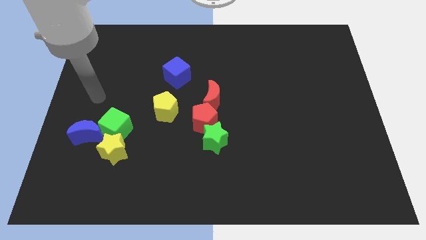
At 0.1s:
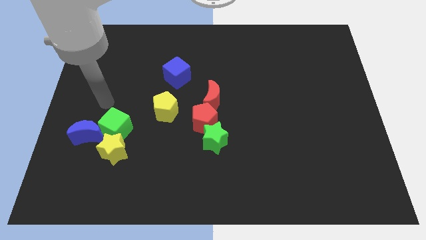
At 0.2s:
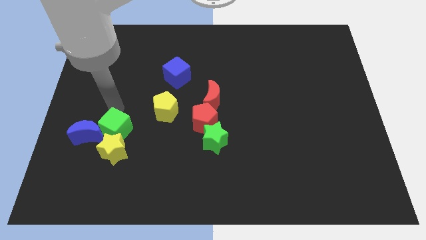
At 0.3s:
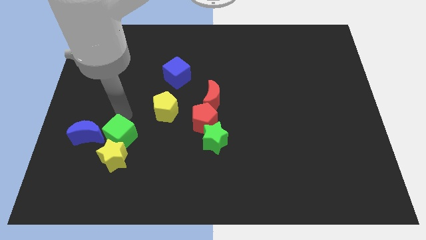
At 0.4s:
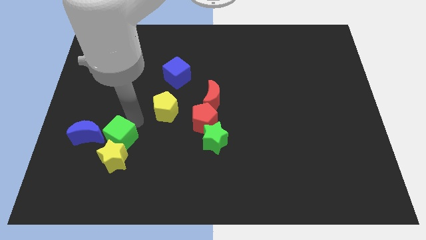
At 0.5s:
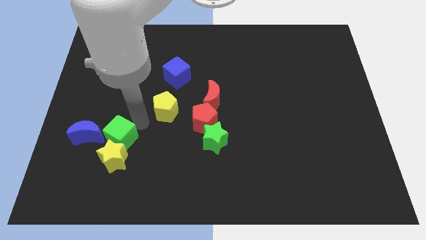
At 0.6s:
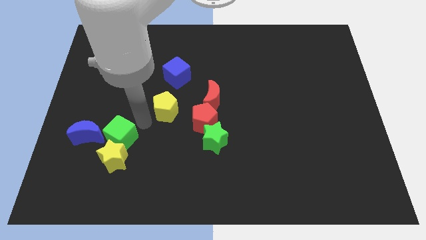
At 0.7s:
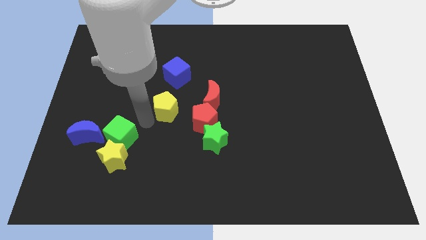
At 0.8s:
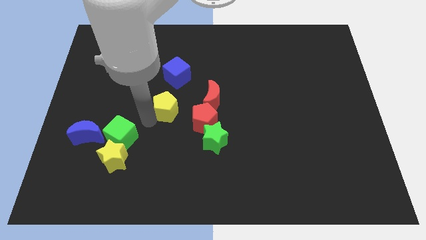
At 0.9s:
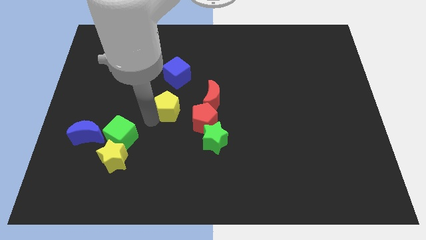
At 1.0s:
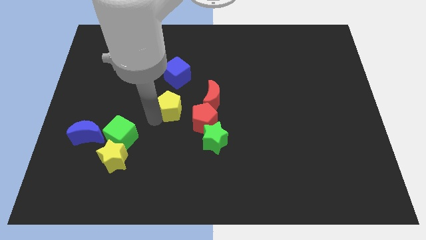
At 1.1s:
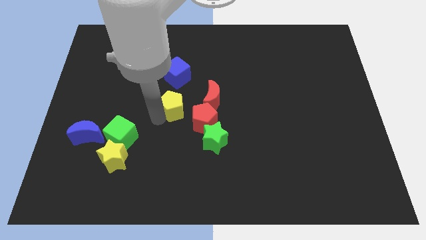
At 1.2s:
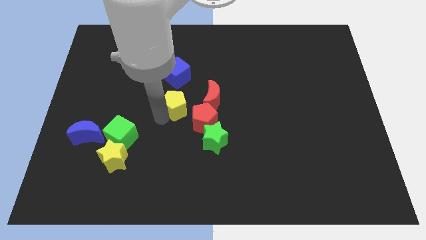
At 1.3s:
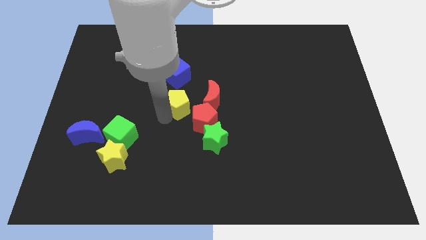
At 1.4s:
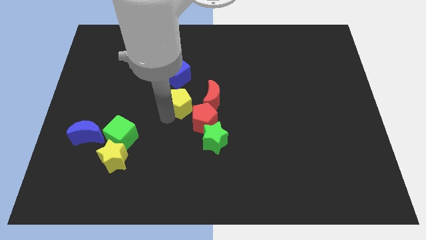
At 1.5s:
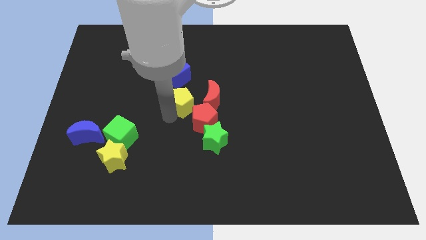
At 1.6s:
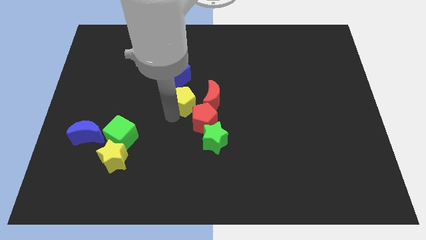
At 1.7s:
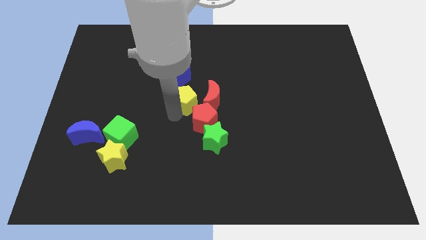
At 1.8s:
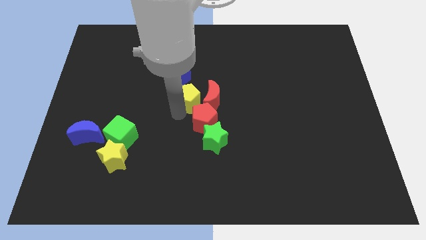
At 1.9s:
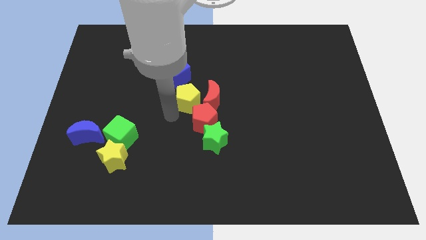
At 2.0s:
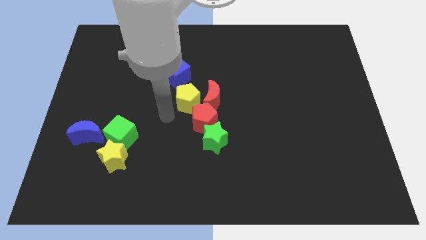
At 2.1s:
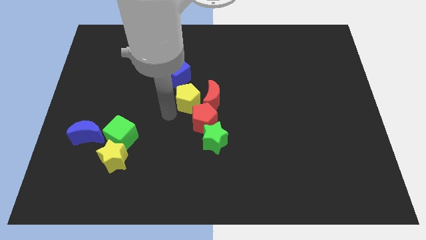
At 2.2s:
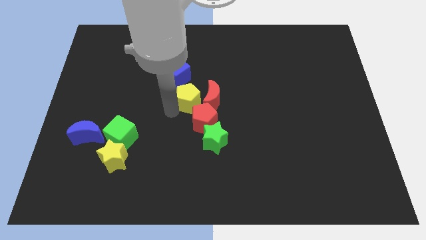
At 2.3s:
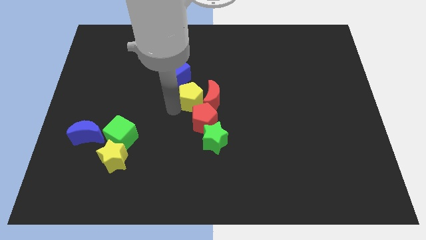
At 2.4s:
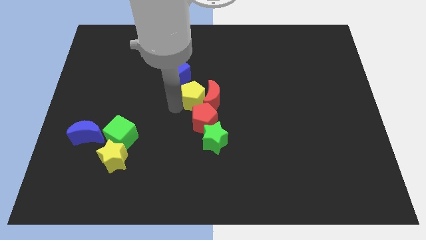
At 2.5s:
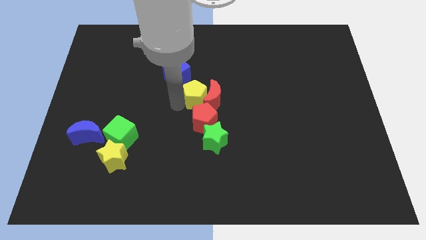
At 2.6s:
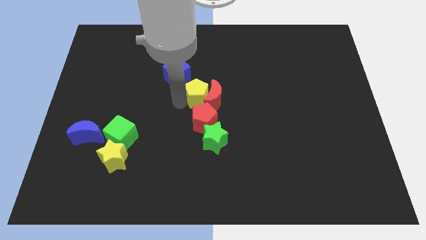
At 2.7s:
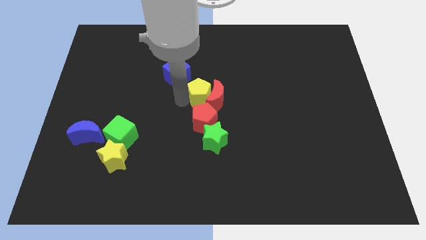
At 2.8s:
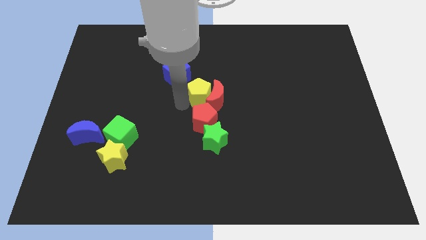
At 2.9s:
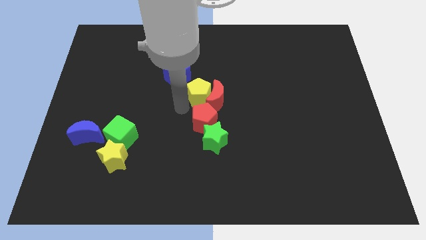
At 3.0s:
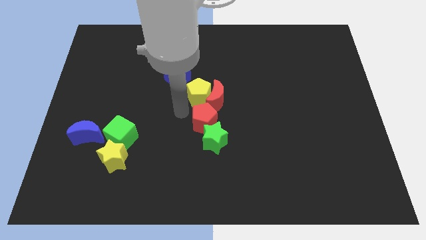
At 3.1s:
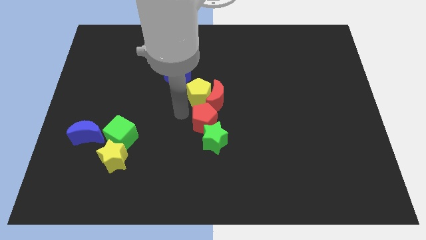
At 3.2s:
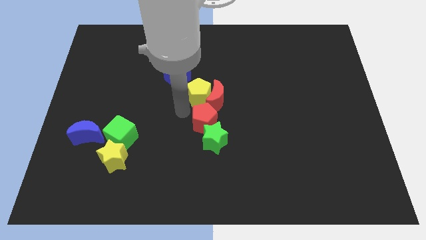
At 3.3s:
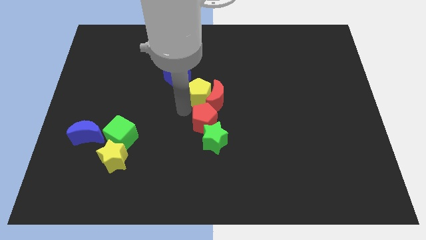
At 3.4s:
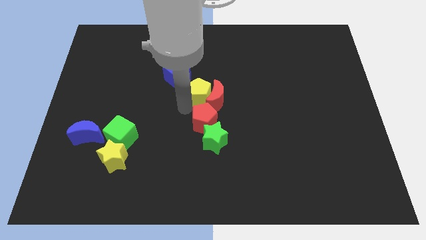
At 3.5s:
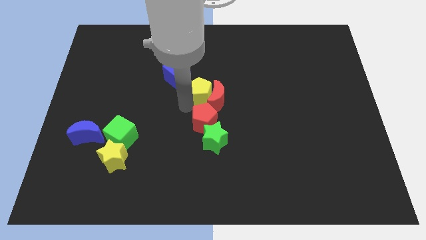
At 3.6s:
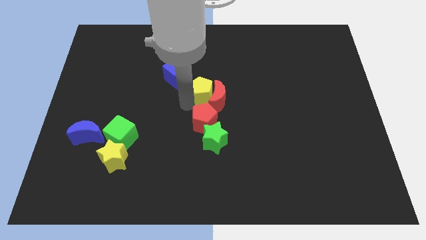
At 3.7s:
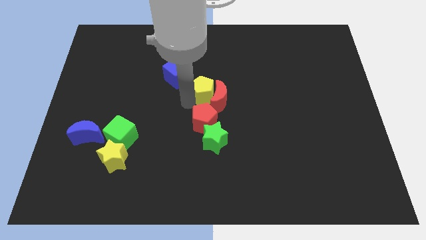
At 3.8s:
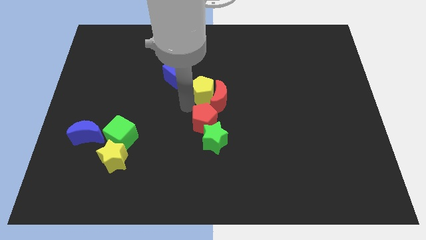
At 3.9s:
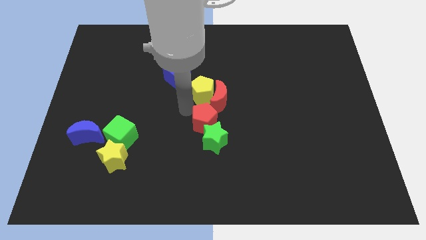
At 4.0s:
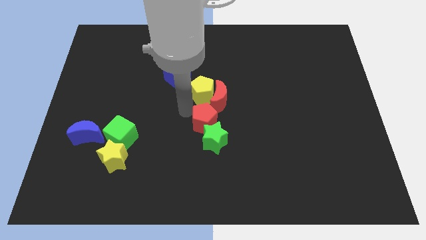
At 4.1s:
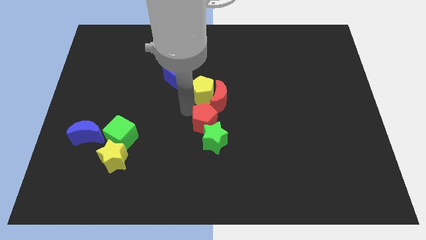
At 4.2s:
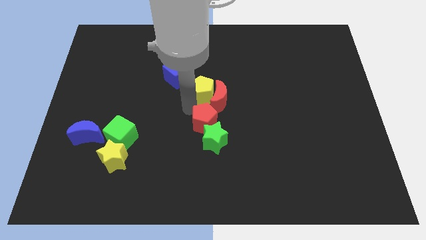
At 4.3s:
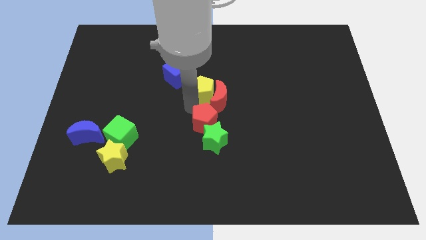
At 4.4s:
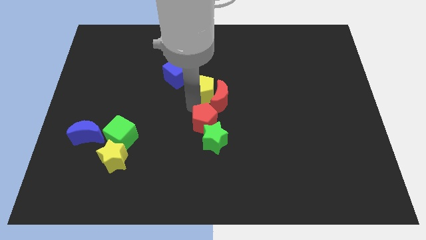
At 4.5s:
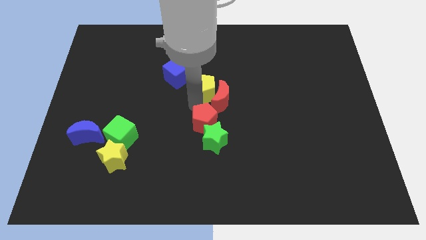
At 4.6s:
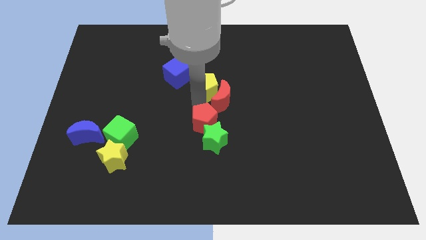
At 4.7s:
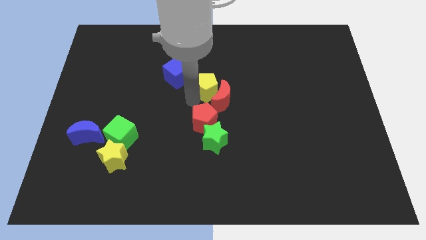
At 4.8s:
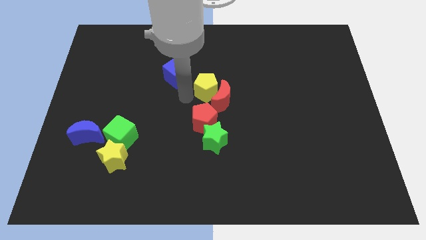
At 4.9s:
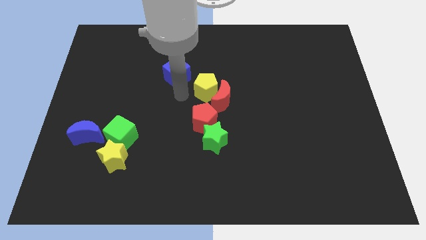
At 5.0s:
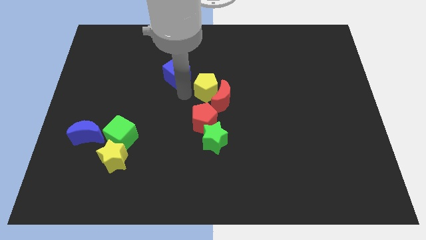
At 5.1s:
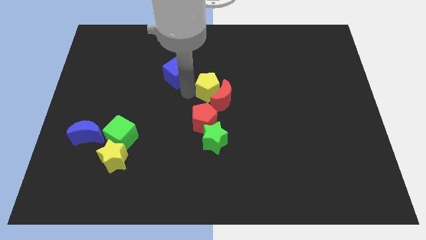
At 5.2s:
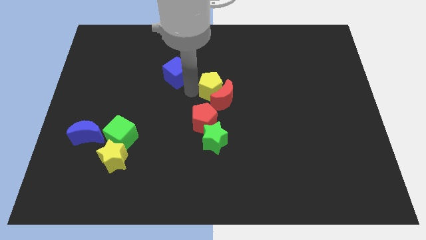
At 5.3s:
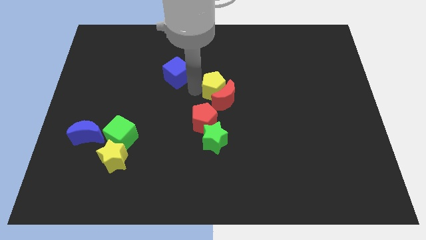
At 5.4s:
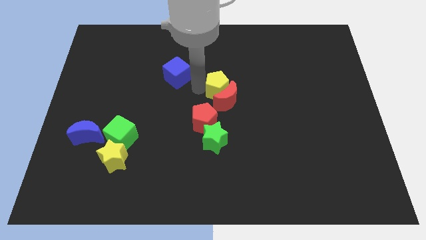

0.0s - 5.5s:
put the yellow pentagon to the top right of the red moon

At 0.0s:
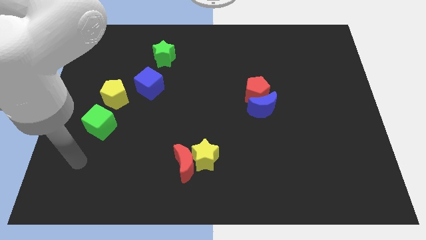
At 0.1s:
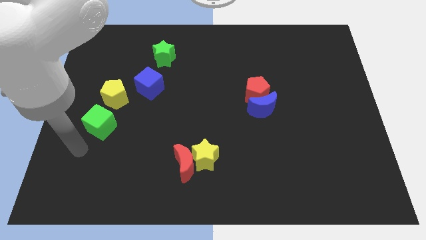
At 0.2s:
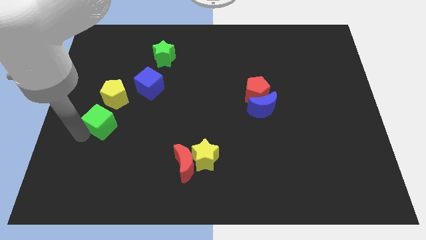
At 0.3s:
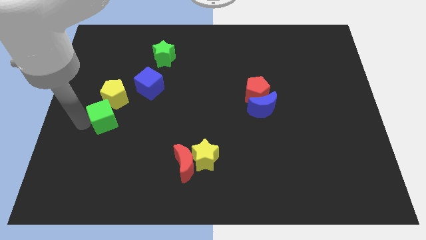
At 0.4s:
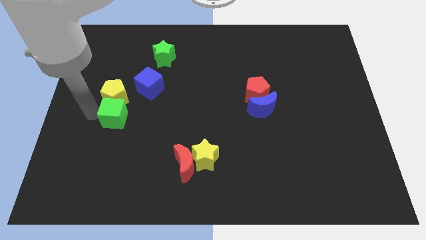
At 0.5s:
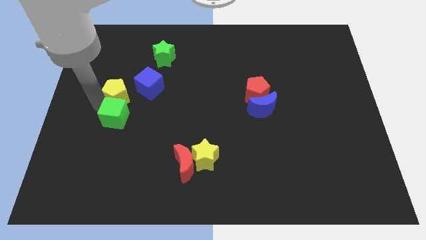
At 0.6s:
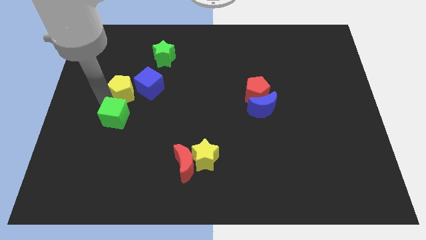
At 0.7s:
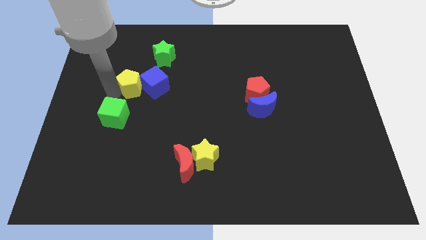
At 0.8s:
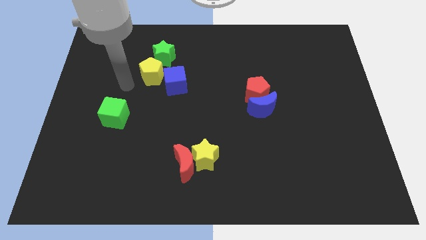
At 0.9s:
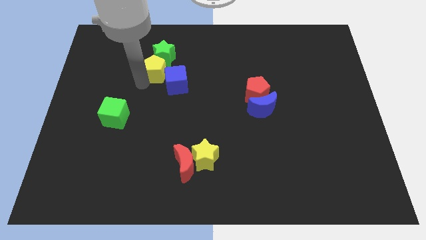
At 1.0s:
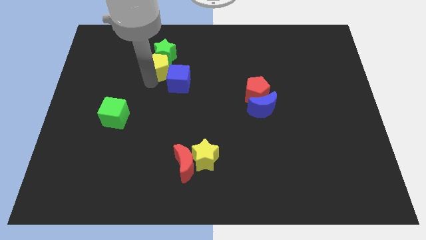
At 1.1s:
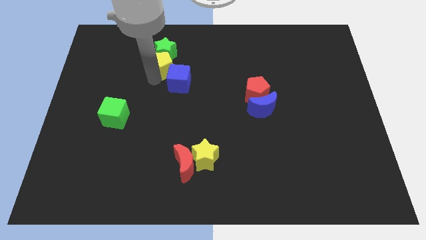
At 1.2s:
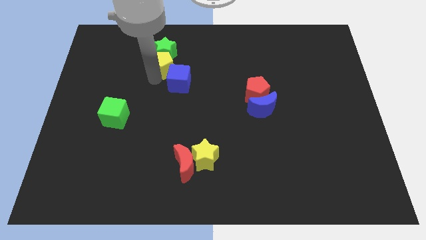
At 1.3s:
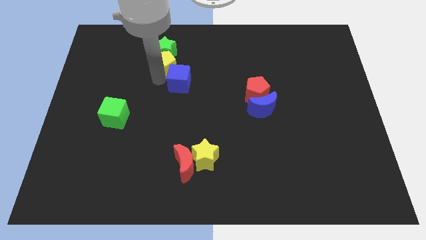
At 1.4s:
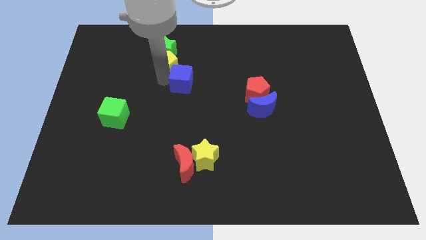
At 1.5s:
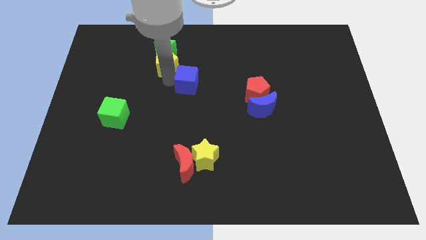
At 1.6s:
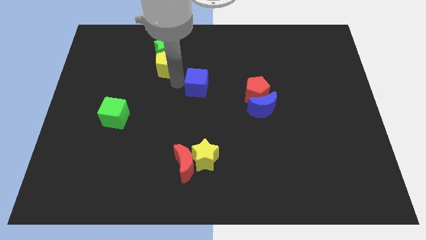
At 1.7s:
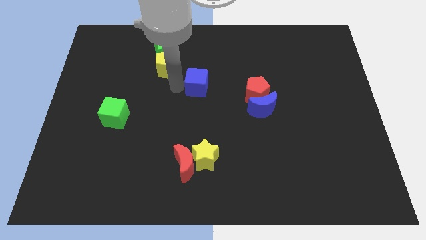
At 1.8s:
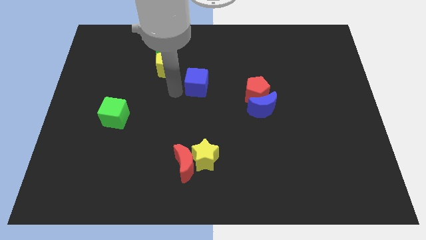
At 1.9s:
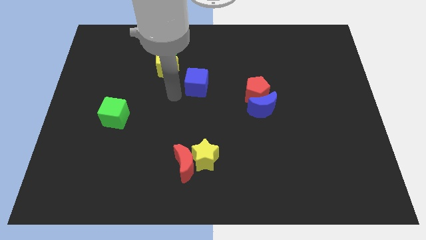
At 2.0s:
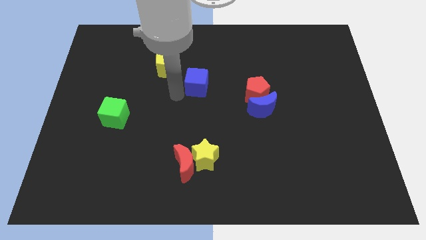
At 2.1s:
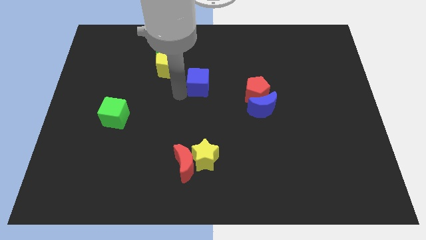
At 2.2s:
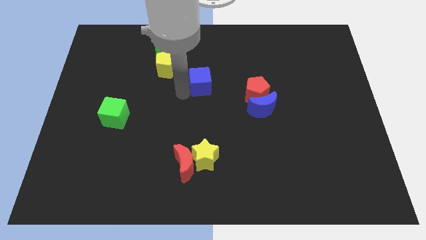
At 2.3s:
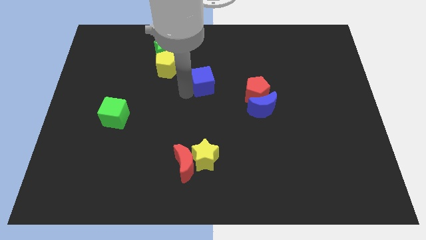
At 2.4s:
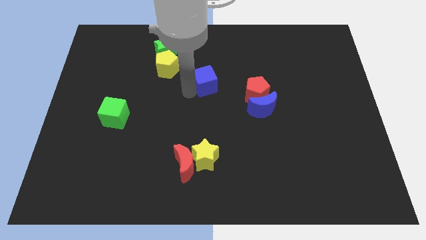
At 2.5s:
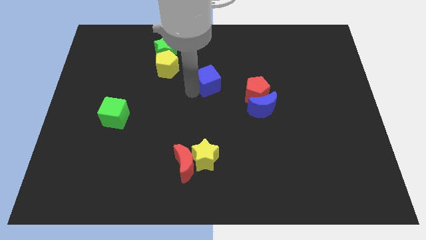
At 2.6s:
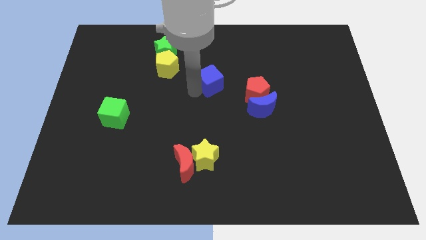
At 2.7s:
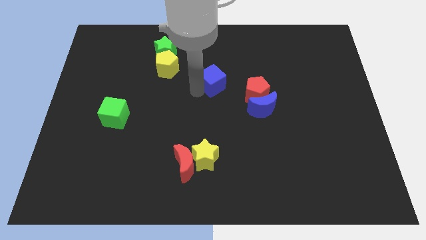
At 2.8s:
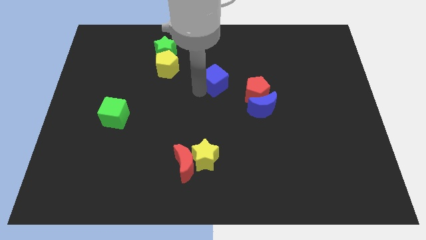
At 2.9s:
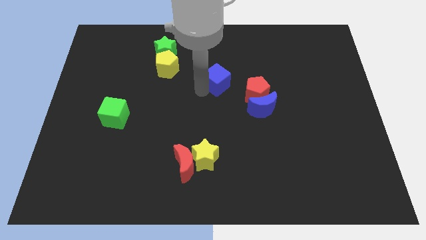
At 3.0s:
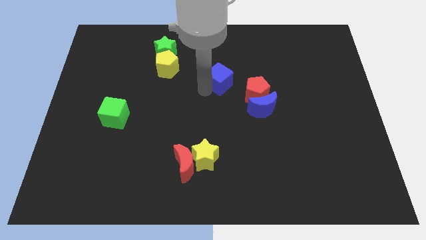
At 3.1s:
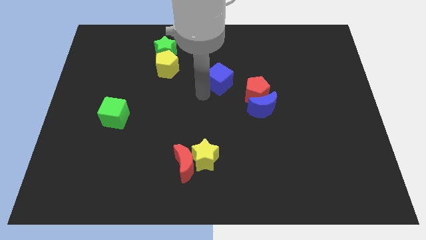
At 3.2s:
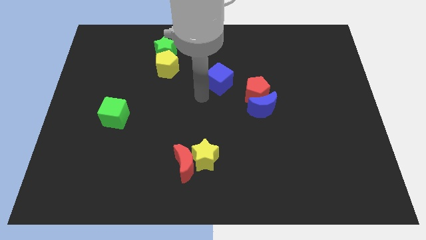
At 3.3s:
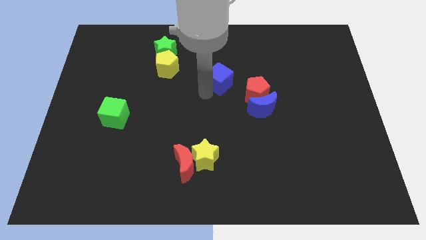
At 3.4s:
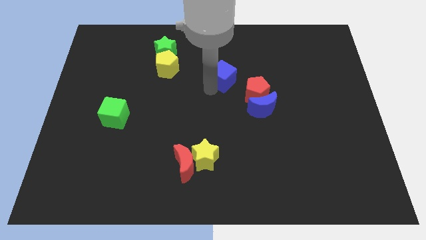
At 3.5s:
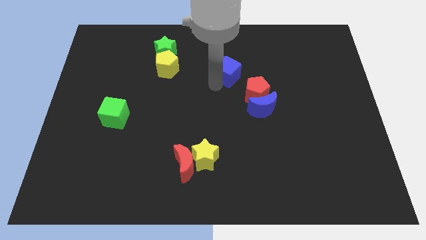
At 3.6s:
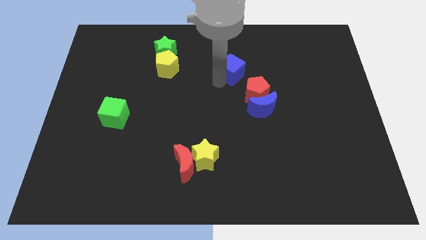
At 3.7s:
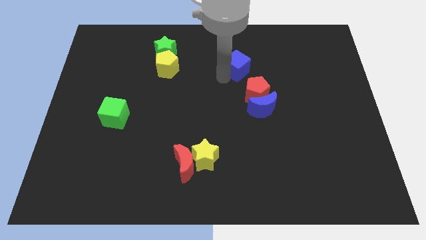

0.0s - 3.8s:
slide the blue cube to the top side of the red pentagon
